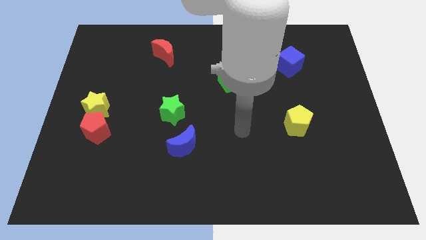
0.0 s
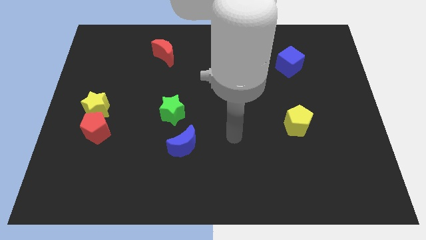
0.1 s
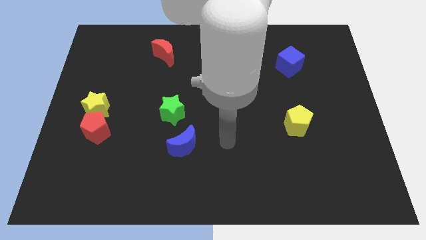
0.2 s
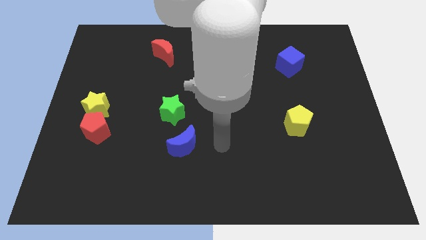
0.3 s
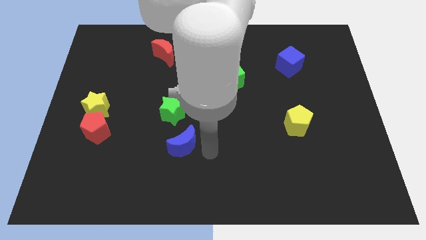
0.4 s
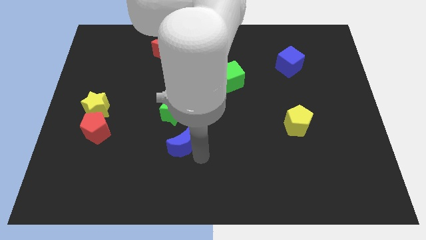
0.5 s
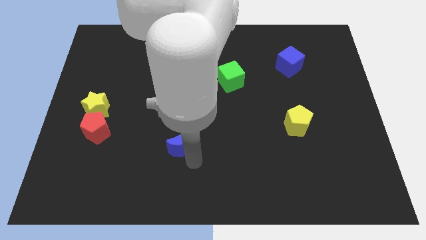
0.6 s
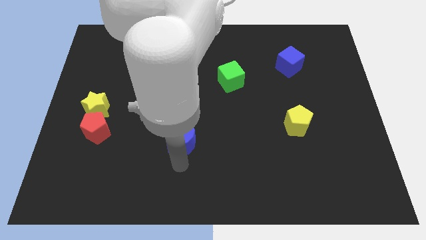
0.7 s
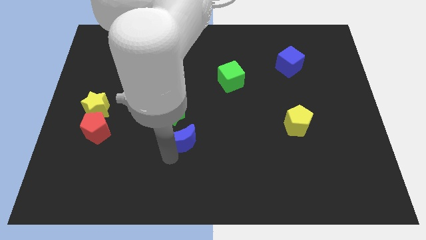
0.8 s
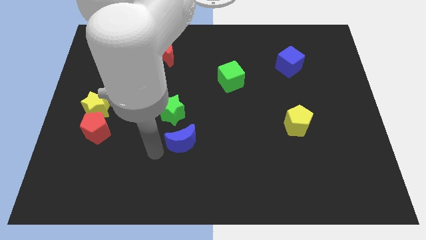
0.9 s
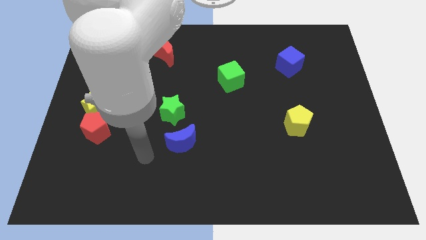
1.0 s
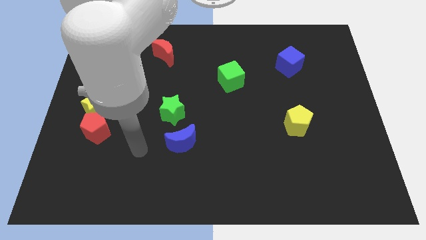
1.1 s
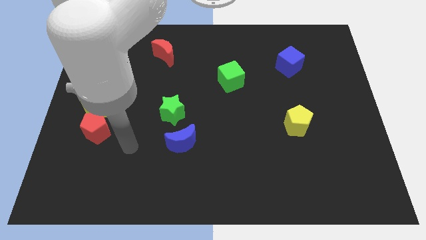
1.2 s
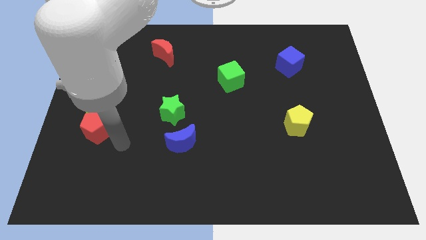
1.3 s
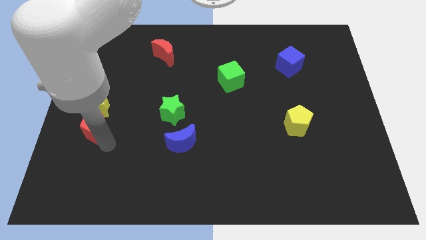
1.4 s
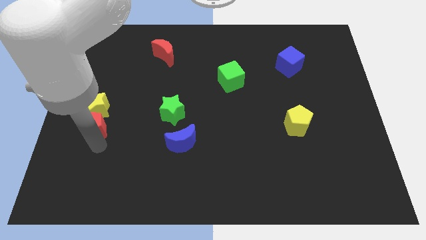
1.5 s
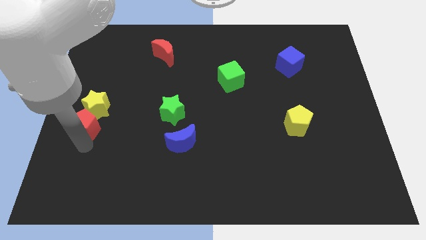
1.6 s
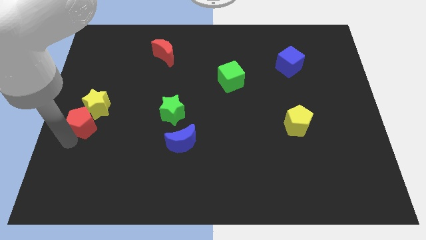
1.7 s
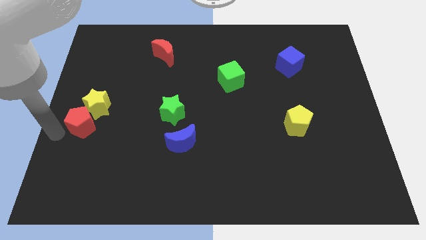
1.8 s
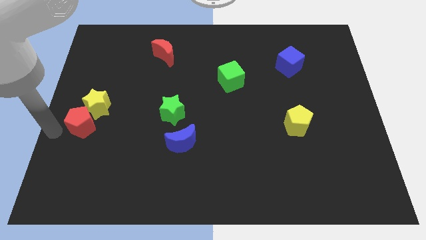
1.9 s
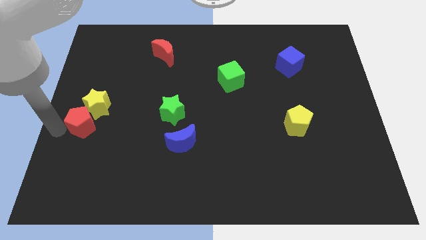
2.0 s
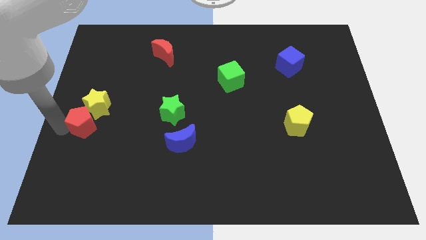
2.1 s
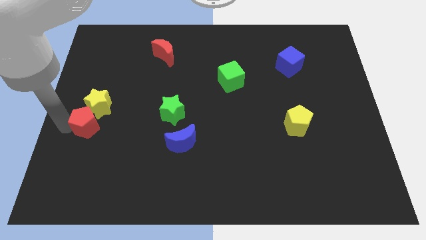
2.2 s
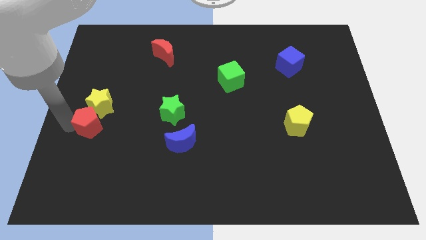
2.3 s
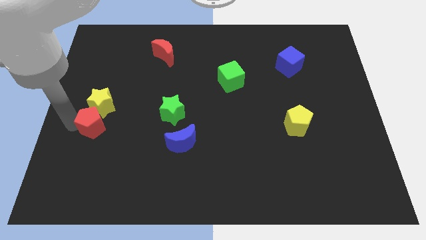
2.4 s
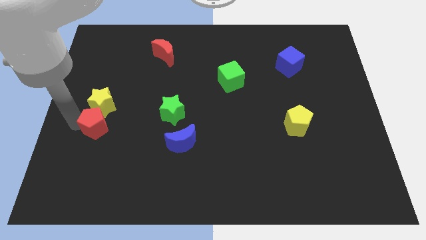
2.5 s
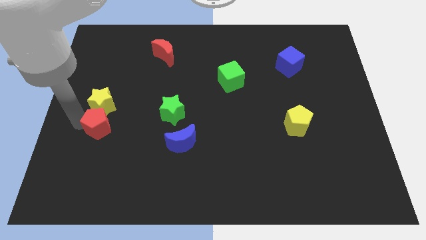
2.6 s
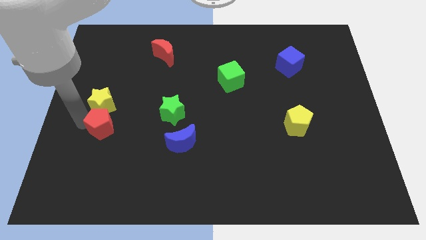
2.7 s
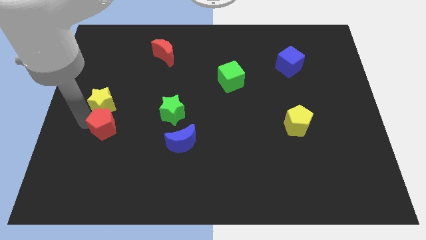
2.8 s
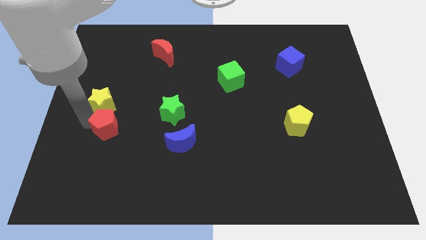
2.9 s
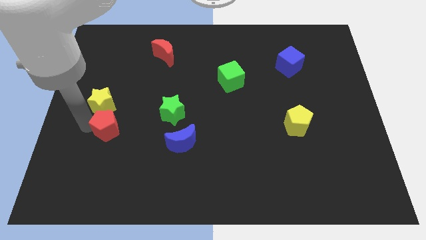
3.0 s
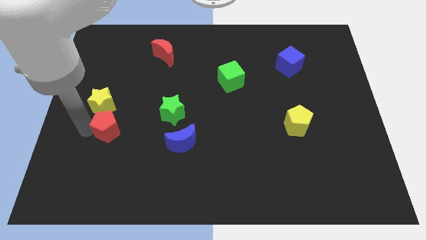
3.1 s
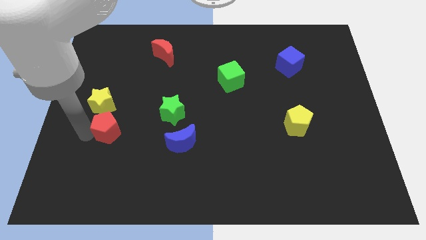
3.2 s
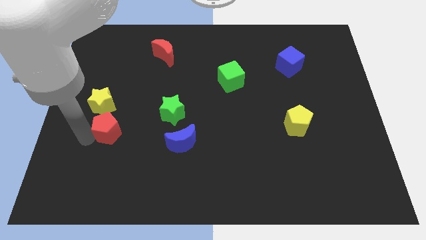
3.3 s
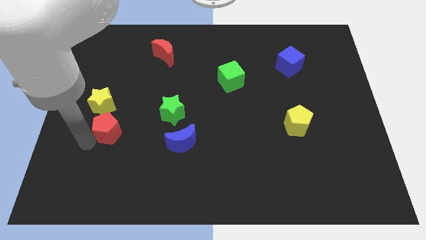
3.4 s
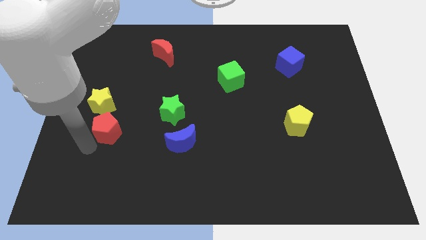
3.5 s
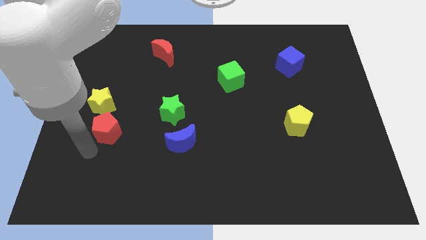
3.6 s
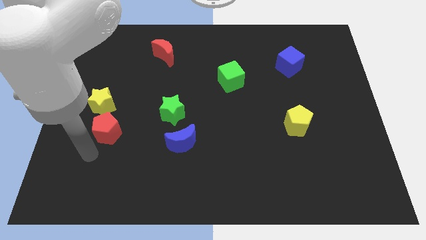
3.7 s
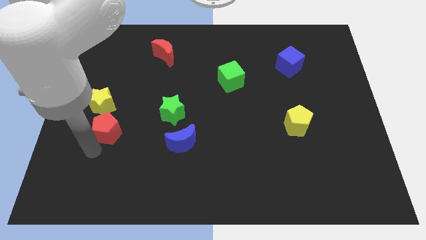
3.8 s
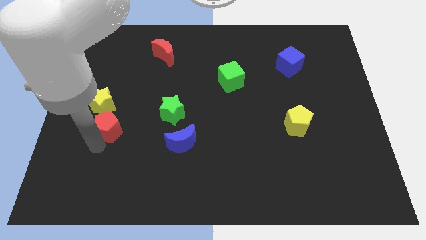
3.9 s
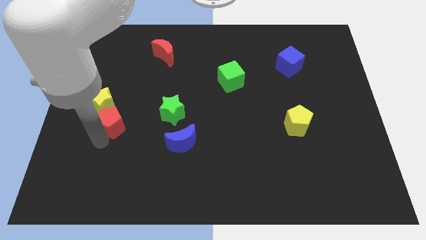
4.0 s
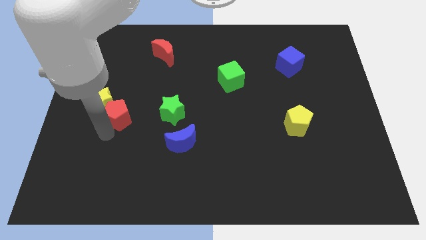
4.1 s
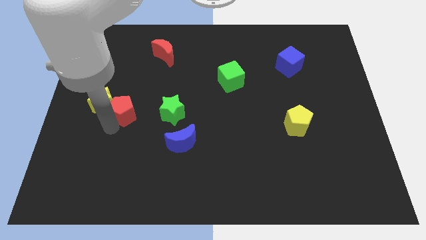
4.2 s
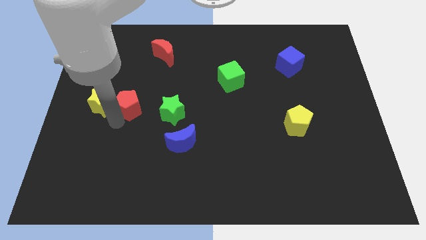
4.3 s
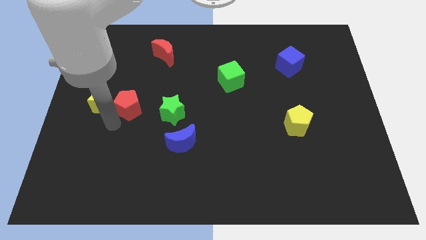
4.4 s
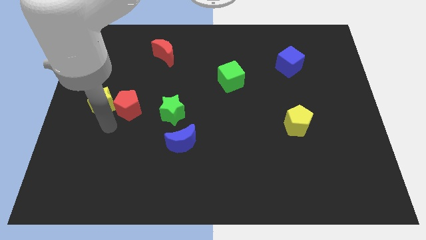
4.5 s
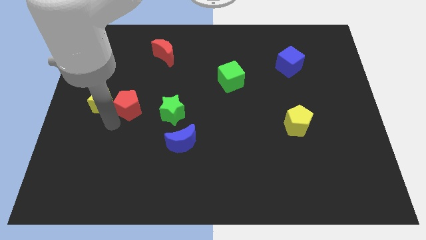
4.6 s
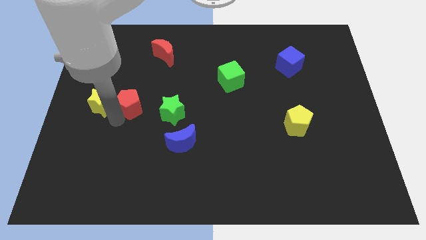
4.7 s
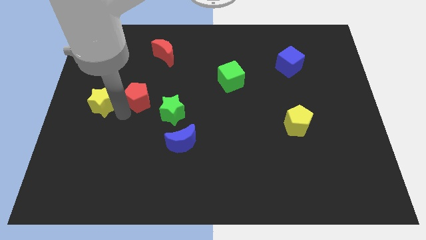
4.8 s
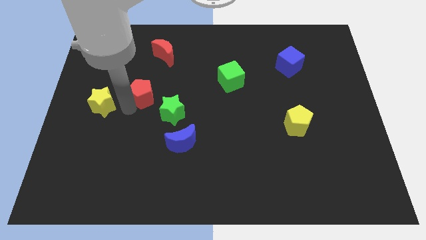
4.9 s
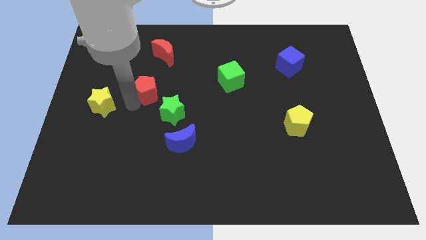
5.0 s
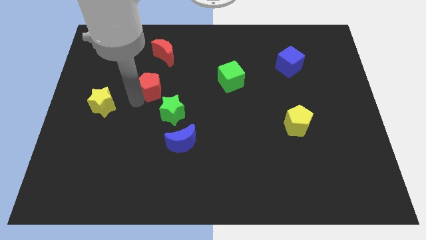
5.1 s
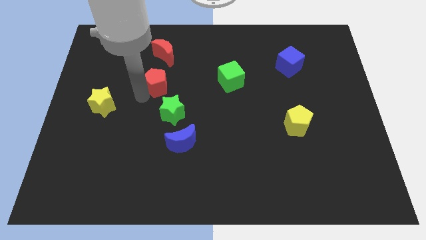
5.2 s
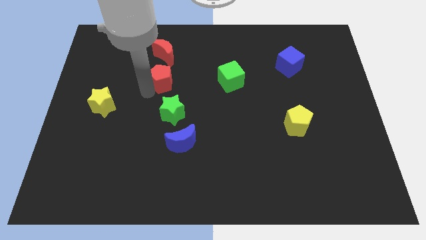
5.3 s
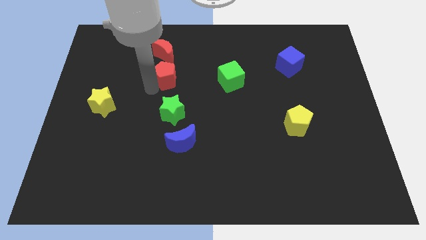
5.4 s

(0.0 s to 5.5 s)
move the red pentagon upwards and to the right

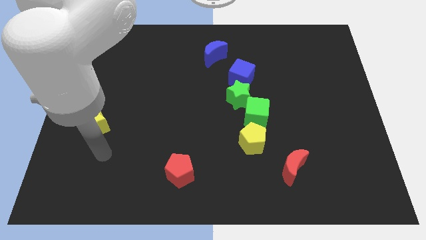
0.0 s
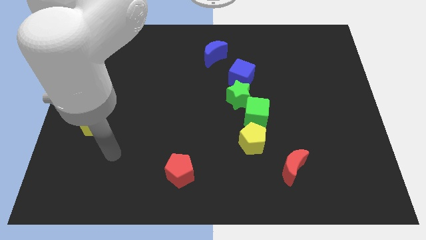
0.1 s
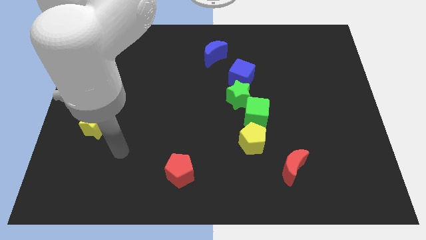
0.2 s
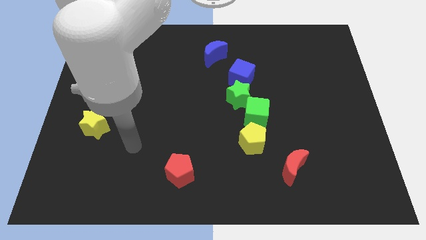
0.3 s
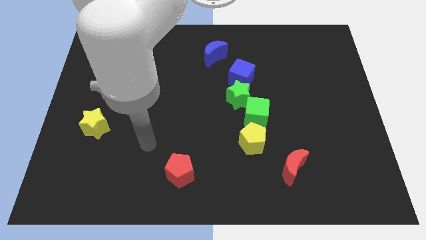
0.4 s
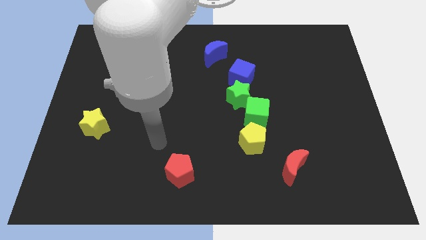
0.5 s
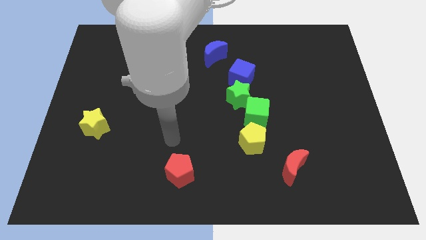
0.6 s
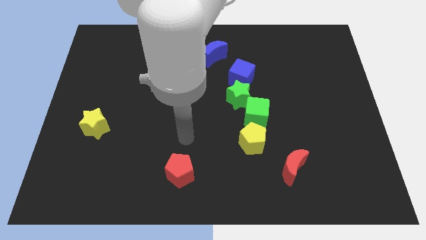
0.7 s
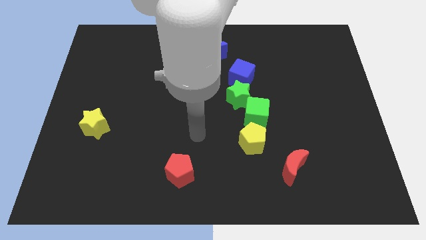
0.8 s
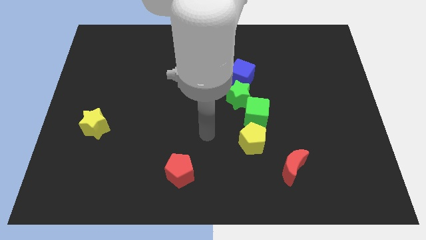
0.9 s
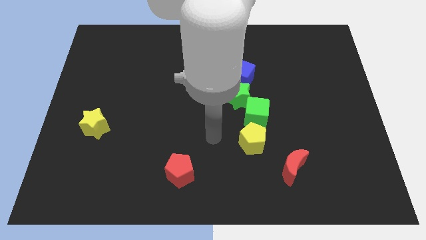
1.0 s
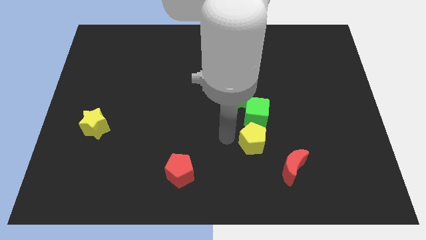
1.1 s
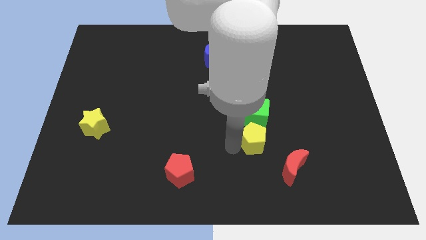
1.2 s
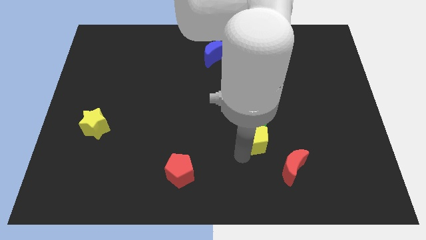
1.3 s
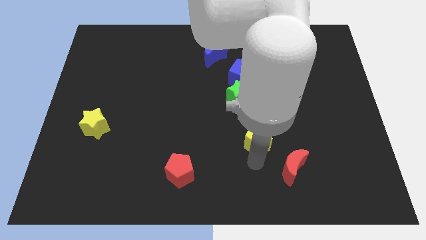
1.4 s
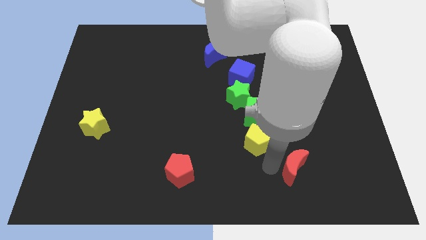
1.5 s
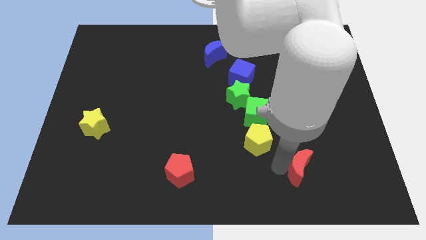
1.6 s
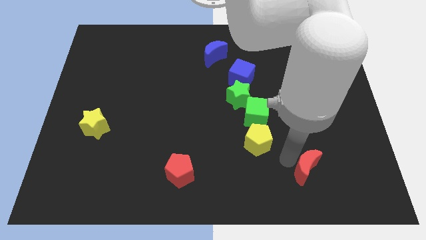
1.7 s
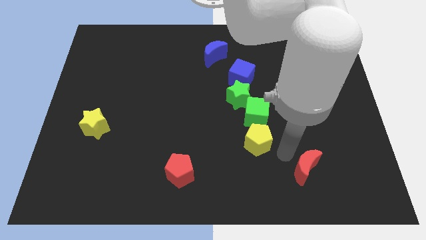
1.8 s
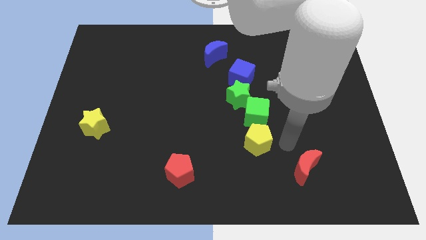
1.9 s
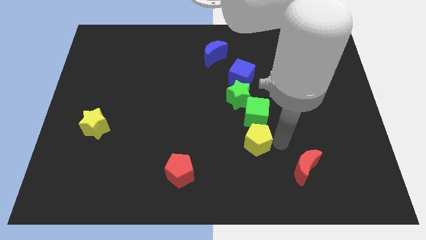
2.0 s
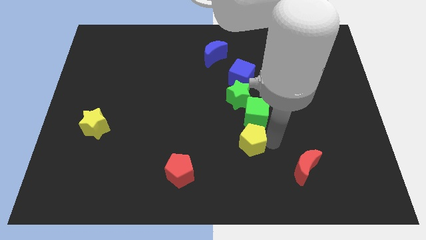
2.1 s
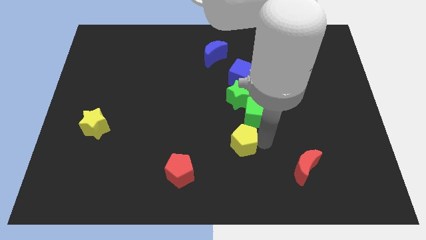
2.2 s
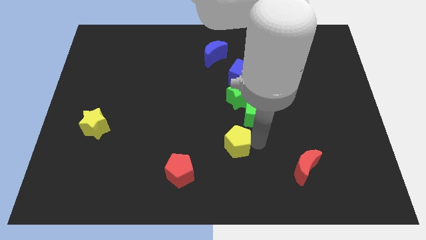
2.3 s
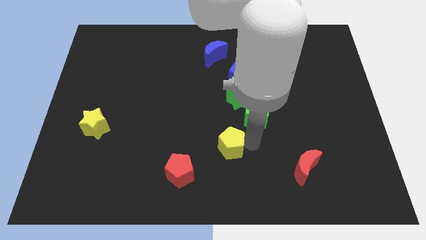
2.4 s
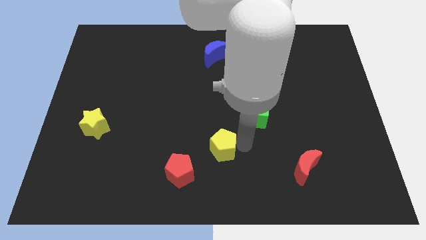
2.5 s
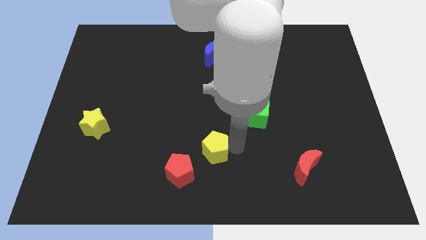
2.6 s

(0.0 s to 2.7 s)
slightly move the yellow pentagon to the left
